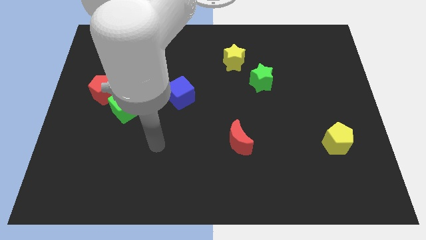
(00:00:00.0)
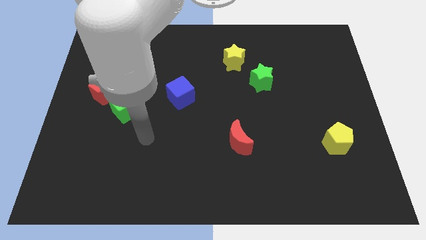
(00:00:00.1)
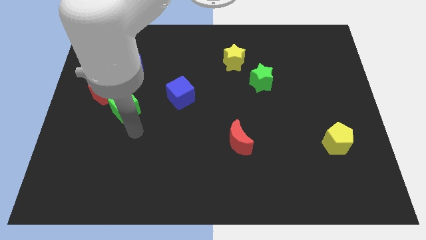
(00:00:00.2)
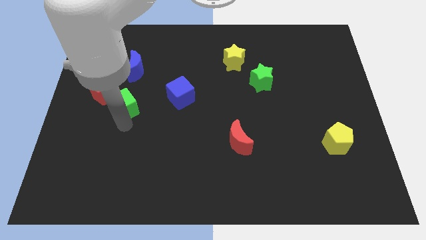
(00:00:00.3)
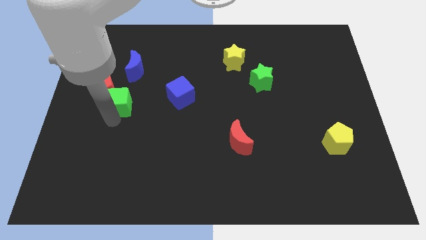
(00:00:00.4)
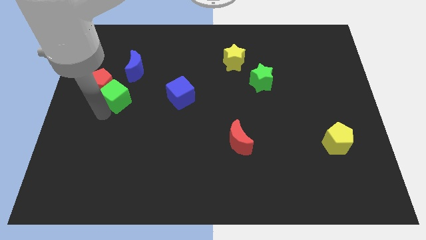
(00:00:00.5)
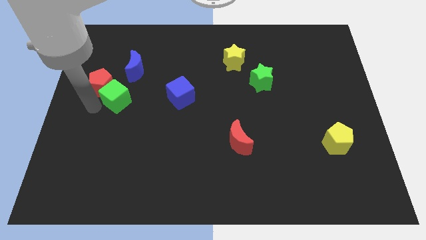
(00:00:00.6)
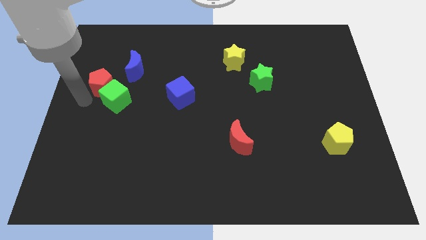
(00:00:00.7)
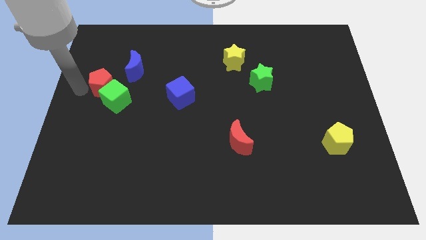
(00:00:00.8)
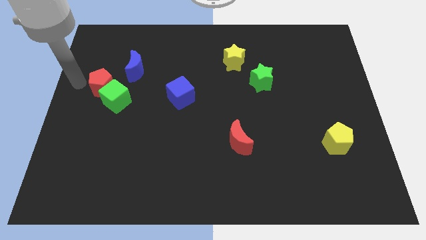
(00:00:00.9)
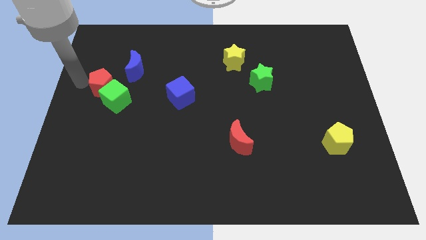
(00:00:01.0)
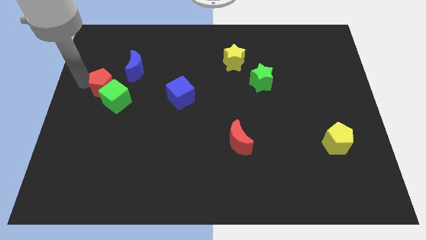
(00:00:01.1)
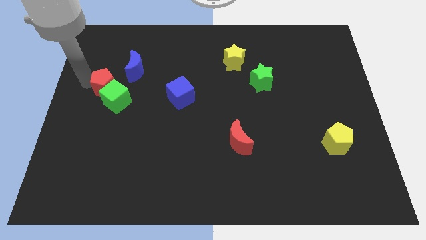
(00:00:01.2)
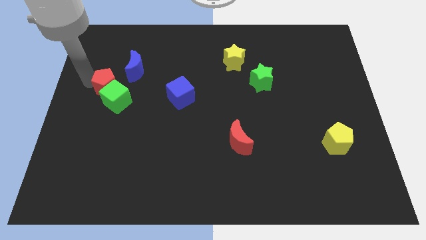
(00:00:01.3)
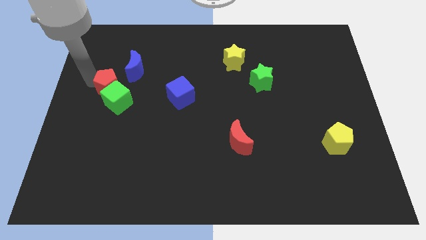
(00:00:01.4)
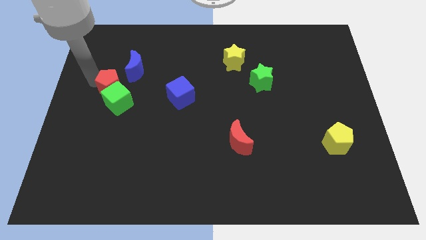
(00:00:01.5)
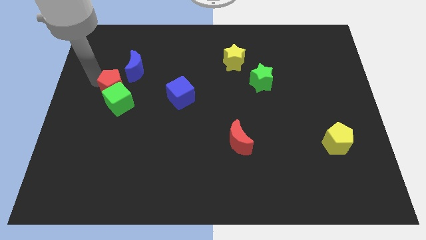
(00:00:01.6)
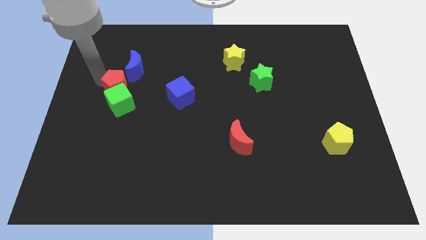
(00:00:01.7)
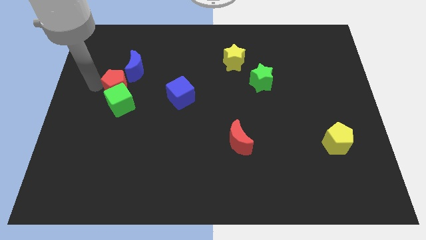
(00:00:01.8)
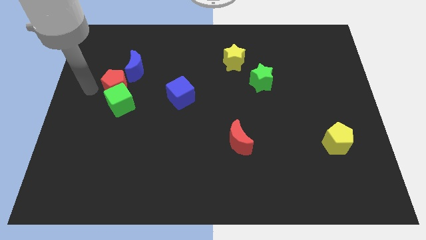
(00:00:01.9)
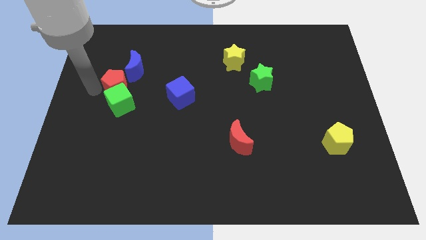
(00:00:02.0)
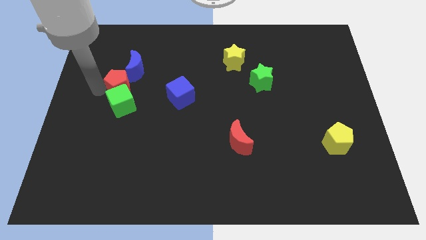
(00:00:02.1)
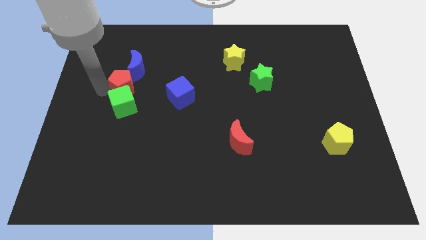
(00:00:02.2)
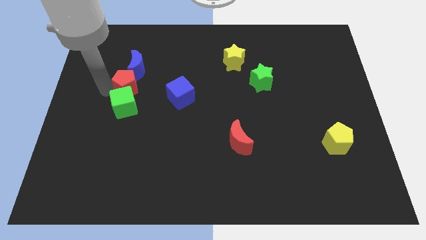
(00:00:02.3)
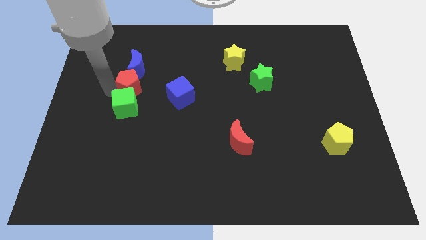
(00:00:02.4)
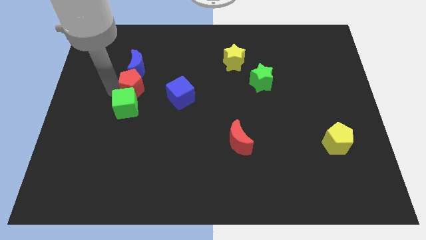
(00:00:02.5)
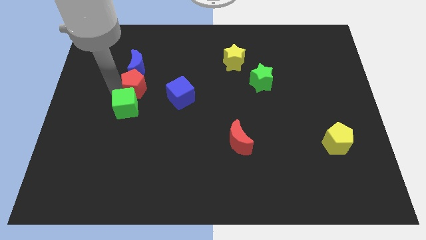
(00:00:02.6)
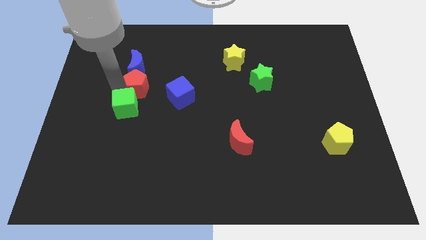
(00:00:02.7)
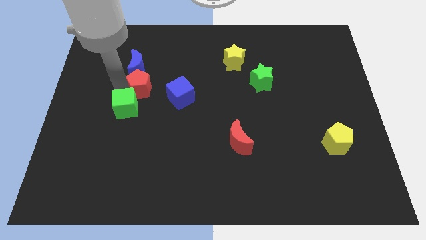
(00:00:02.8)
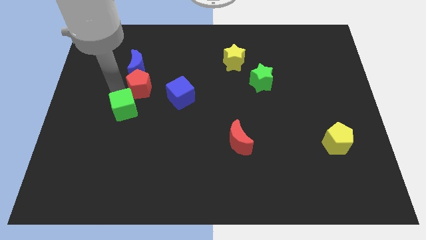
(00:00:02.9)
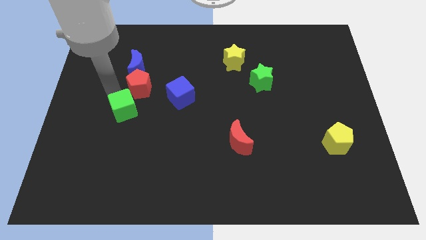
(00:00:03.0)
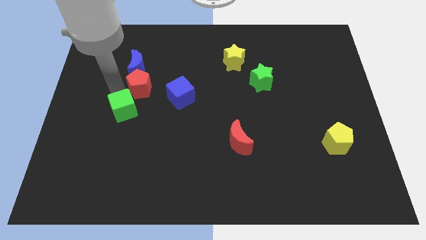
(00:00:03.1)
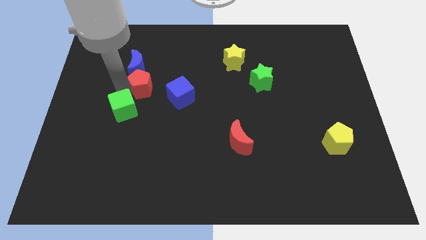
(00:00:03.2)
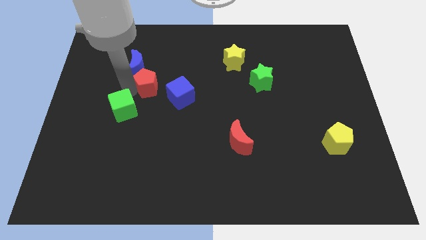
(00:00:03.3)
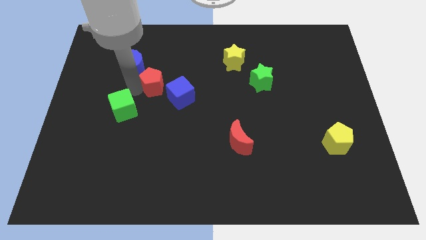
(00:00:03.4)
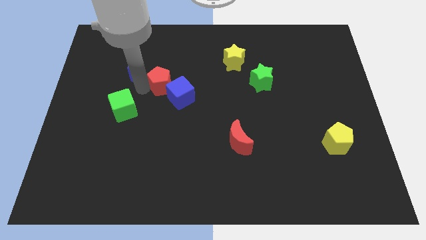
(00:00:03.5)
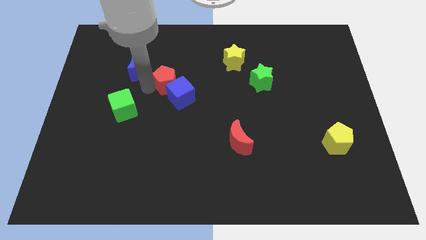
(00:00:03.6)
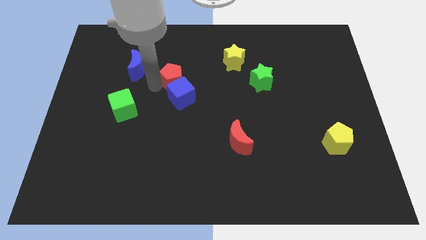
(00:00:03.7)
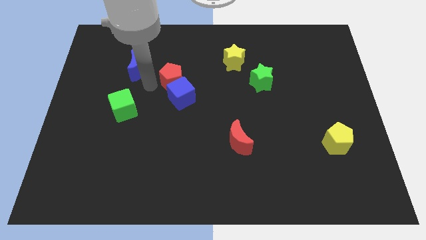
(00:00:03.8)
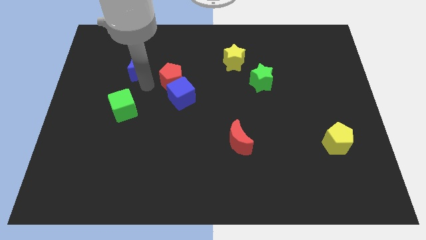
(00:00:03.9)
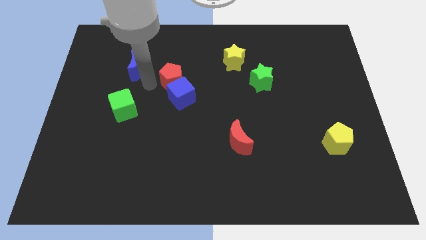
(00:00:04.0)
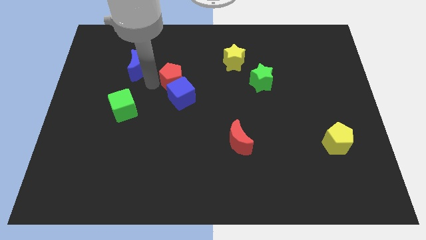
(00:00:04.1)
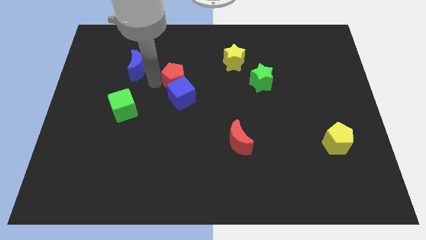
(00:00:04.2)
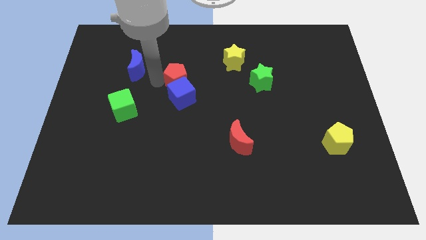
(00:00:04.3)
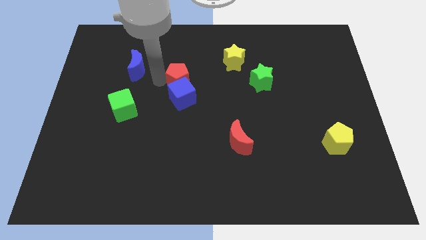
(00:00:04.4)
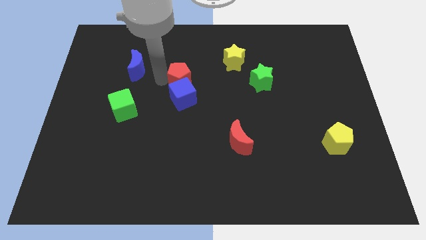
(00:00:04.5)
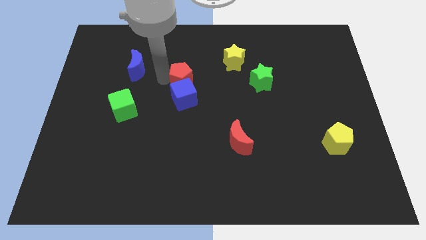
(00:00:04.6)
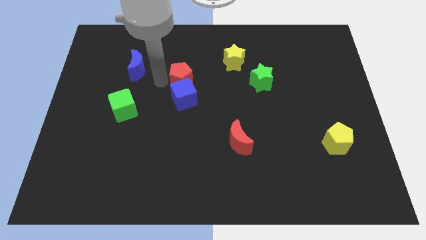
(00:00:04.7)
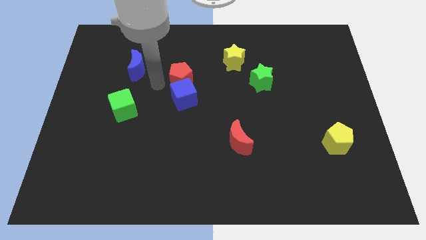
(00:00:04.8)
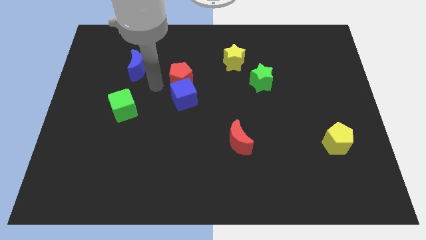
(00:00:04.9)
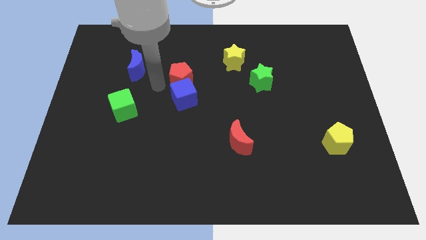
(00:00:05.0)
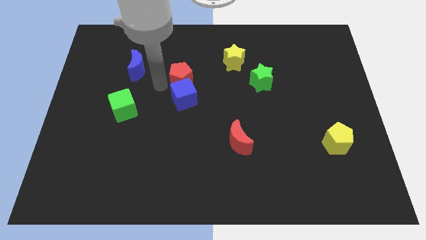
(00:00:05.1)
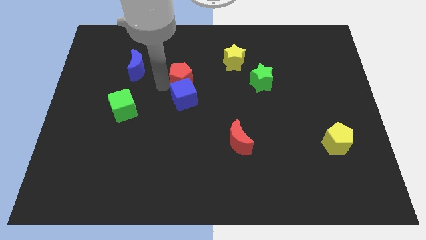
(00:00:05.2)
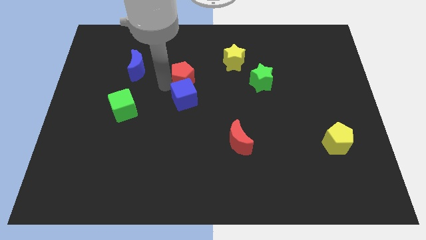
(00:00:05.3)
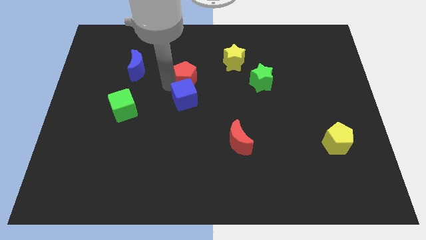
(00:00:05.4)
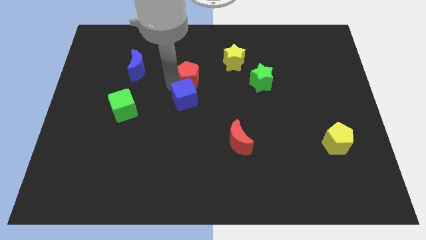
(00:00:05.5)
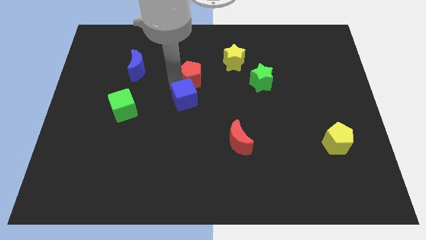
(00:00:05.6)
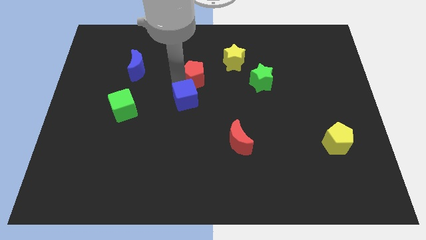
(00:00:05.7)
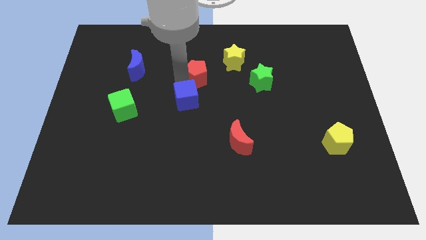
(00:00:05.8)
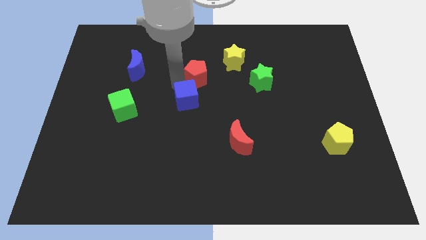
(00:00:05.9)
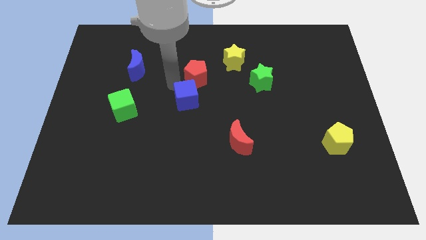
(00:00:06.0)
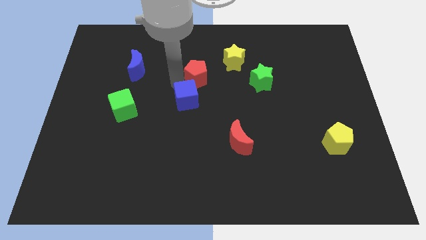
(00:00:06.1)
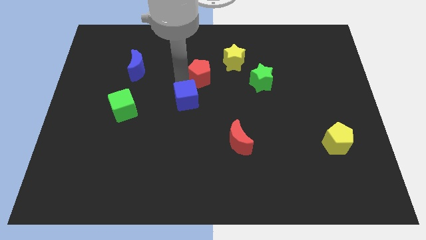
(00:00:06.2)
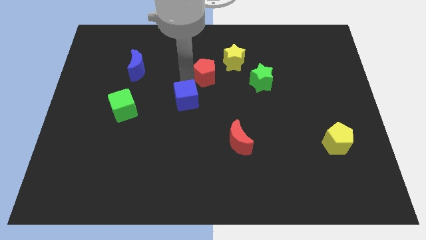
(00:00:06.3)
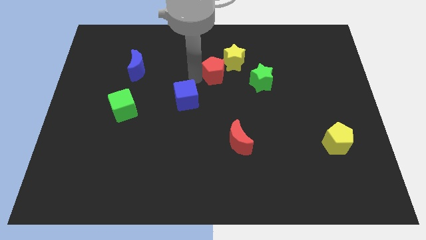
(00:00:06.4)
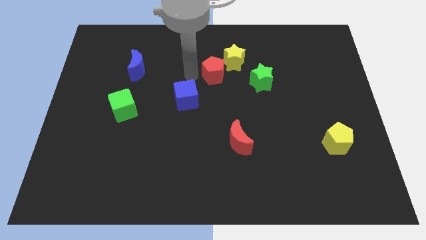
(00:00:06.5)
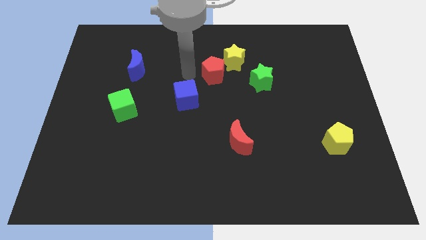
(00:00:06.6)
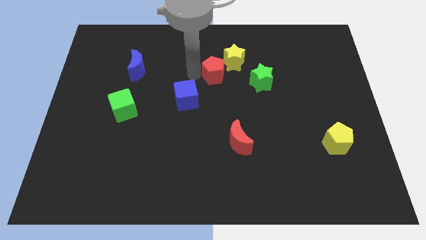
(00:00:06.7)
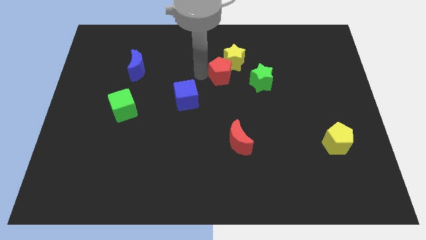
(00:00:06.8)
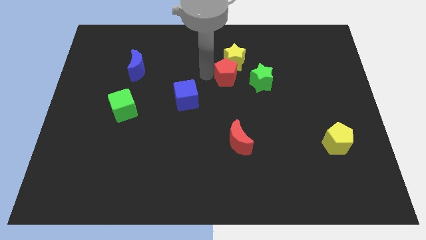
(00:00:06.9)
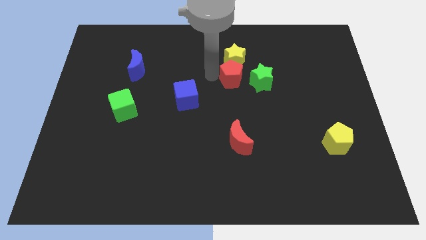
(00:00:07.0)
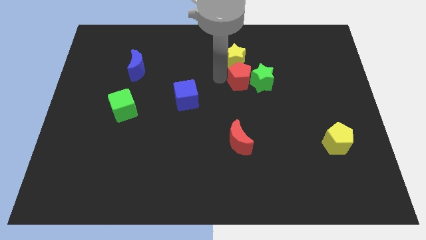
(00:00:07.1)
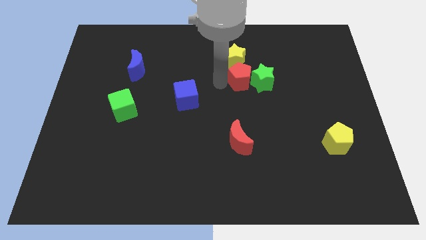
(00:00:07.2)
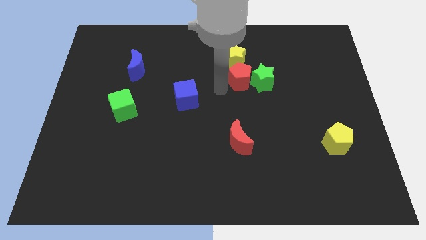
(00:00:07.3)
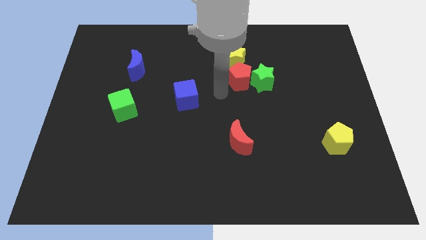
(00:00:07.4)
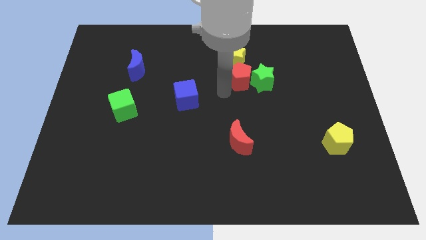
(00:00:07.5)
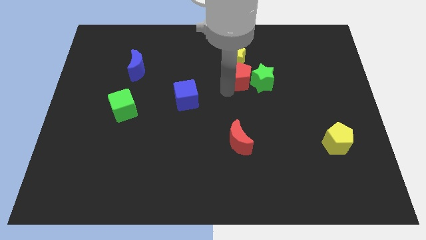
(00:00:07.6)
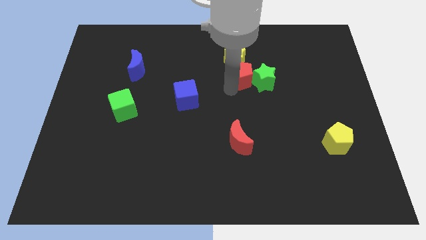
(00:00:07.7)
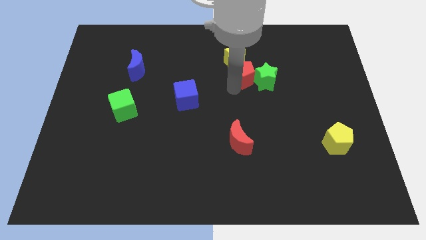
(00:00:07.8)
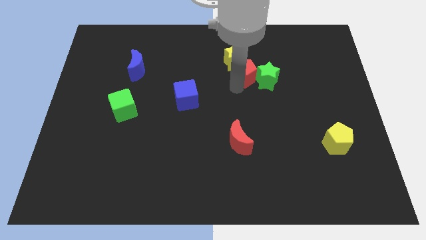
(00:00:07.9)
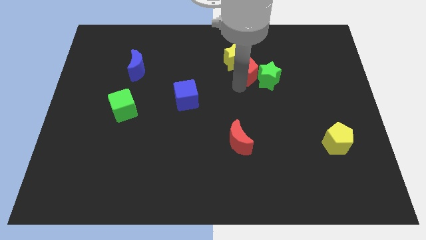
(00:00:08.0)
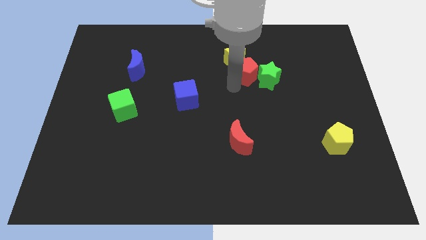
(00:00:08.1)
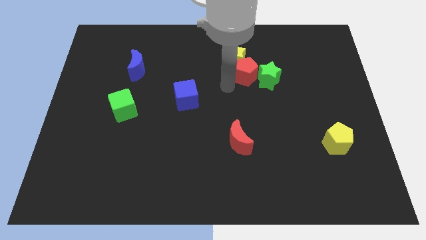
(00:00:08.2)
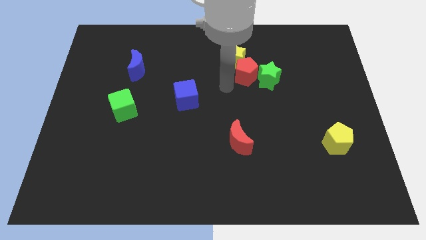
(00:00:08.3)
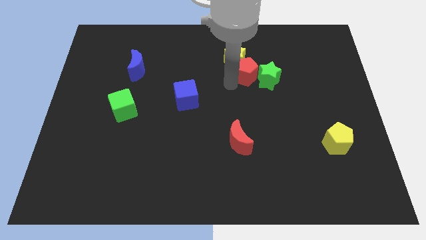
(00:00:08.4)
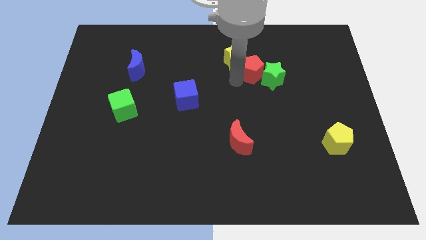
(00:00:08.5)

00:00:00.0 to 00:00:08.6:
move the red pentagon right of the yellow star
